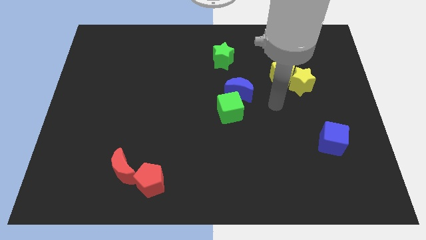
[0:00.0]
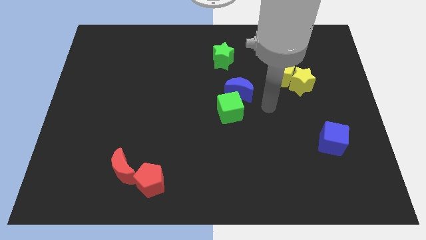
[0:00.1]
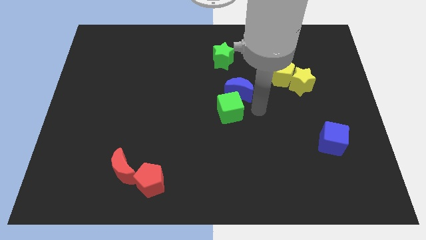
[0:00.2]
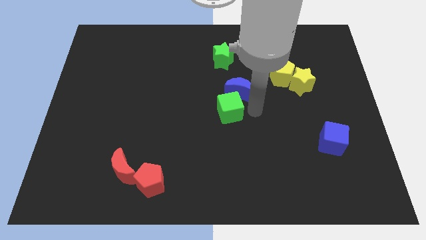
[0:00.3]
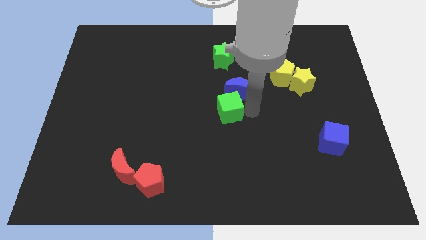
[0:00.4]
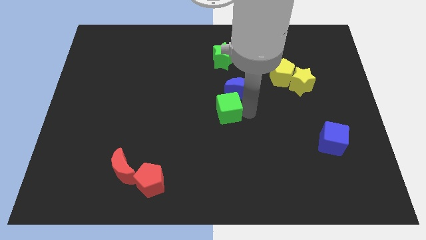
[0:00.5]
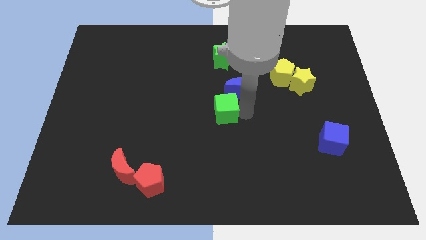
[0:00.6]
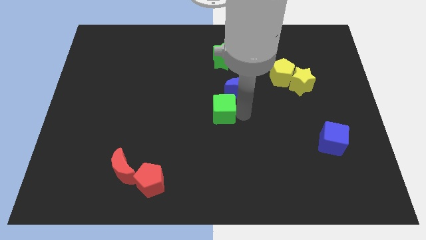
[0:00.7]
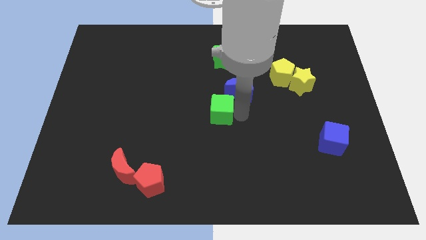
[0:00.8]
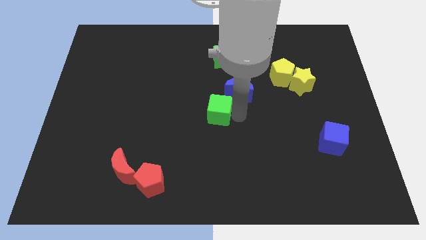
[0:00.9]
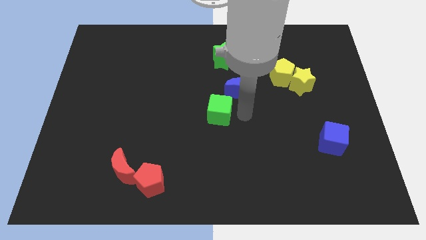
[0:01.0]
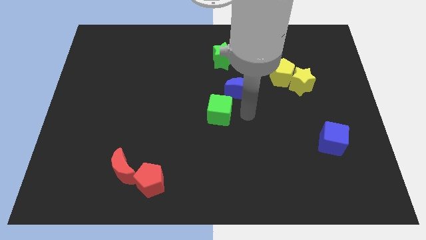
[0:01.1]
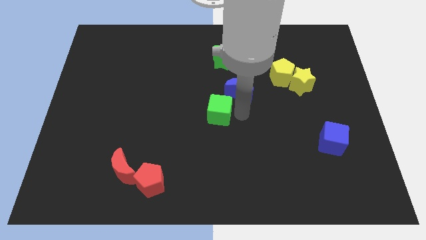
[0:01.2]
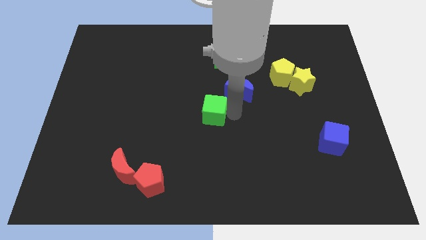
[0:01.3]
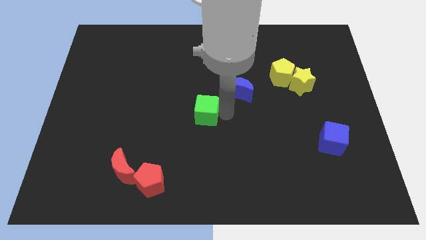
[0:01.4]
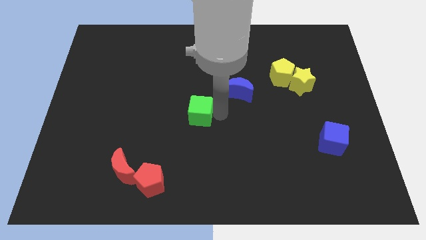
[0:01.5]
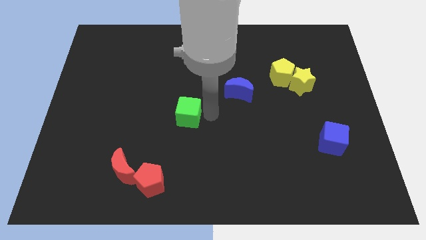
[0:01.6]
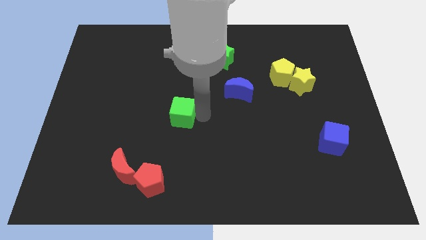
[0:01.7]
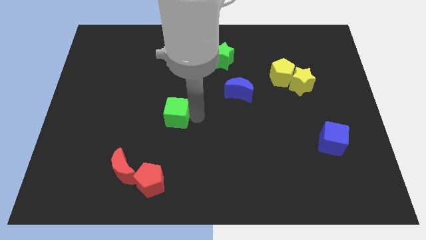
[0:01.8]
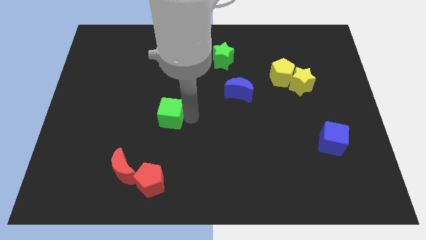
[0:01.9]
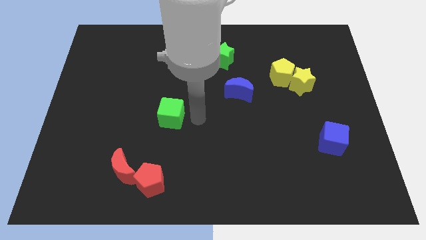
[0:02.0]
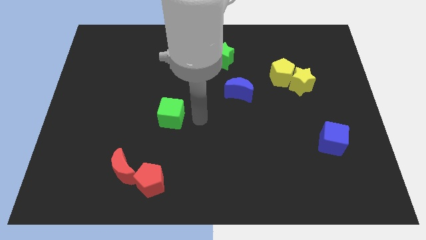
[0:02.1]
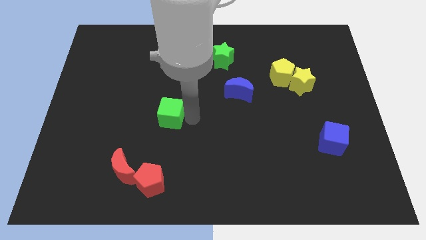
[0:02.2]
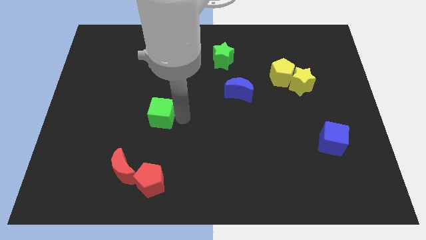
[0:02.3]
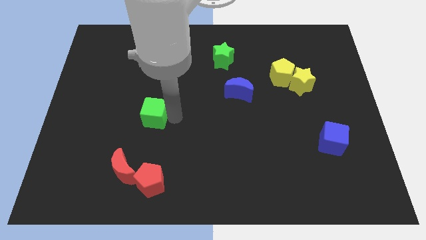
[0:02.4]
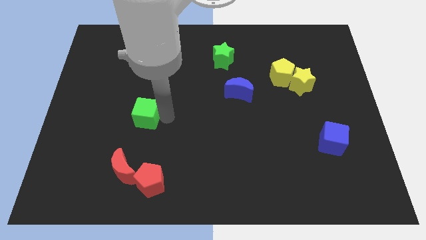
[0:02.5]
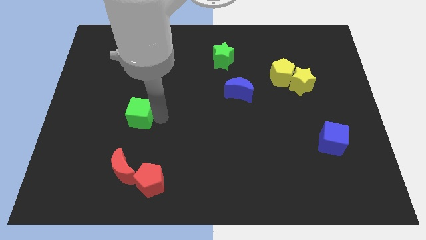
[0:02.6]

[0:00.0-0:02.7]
move the green cube left

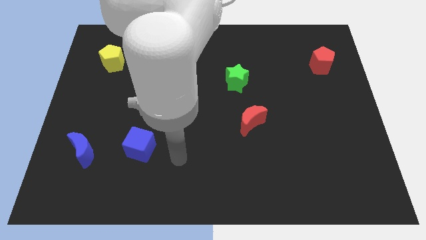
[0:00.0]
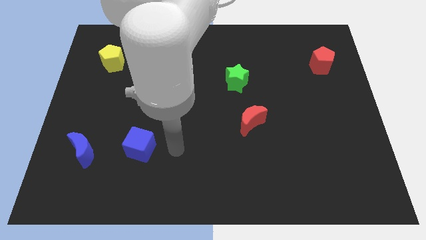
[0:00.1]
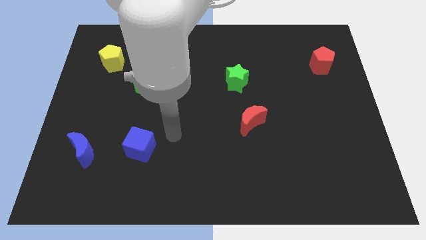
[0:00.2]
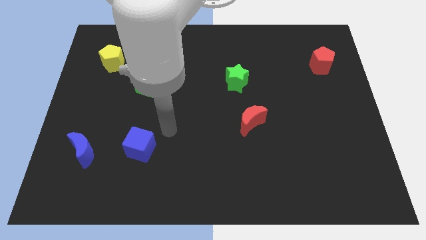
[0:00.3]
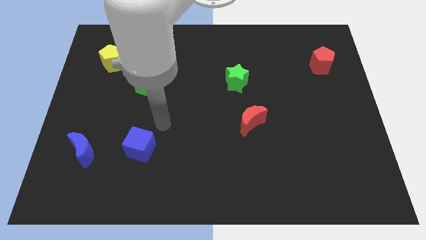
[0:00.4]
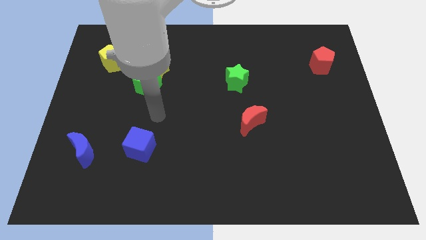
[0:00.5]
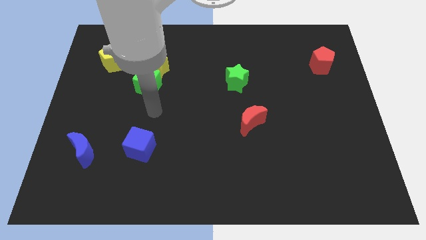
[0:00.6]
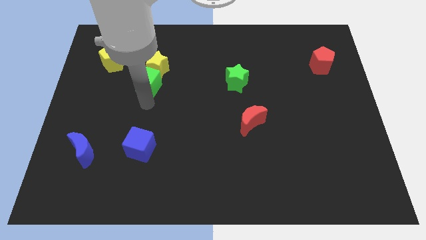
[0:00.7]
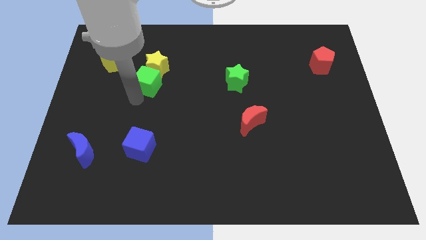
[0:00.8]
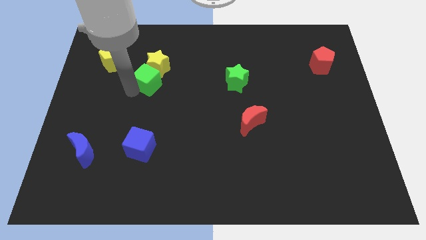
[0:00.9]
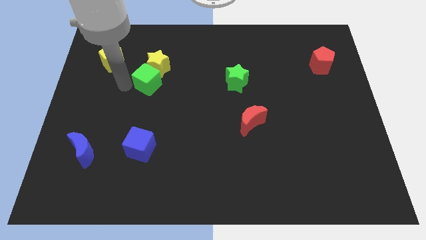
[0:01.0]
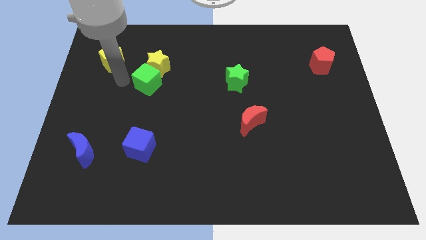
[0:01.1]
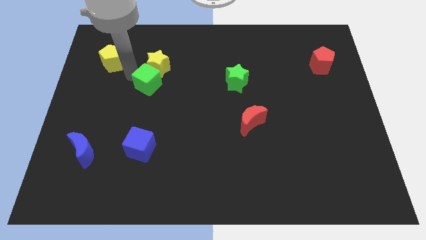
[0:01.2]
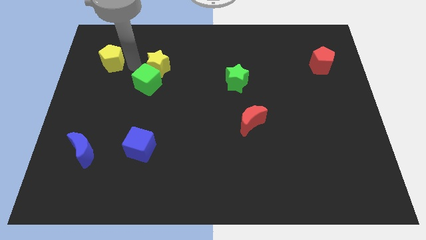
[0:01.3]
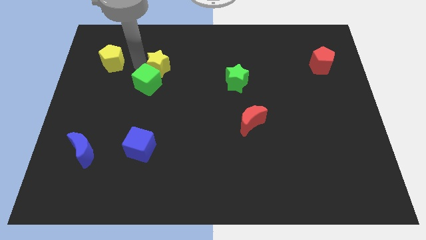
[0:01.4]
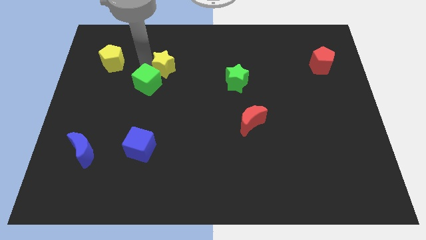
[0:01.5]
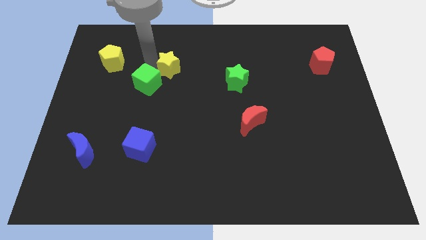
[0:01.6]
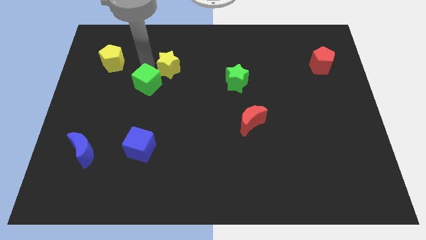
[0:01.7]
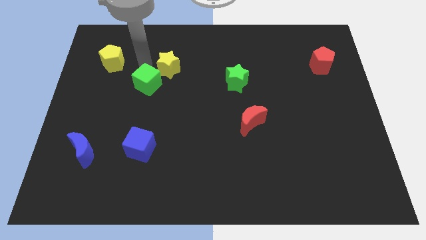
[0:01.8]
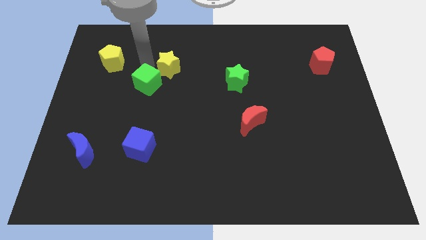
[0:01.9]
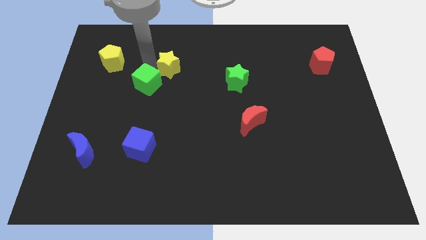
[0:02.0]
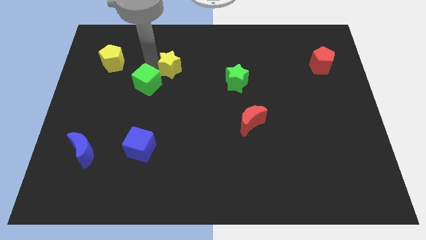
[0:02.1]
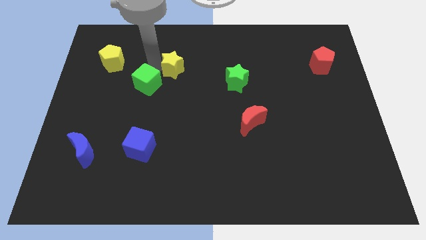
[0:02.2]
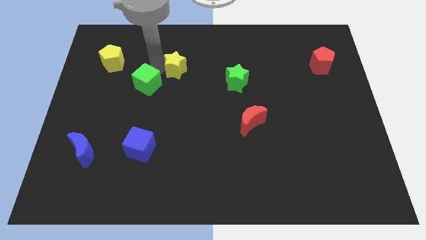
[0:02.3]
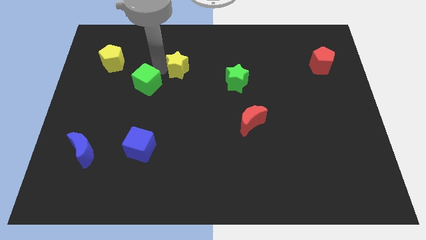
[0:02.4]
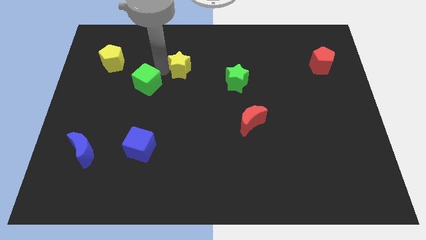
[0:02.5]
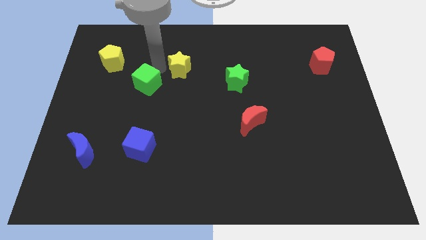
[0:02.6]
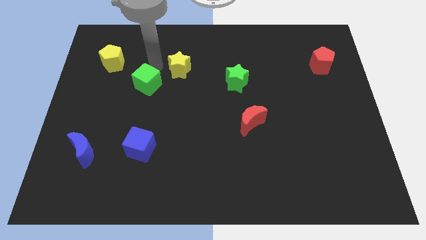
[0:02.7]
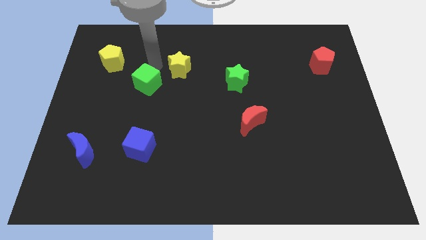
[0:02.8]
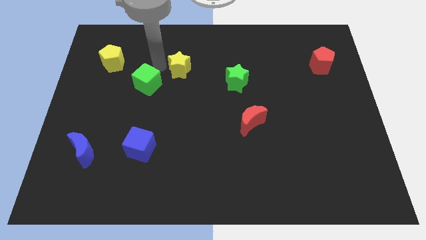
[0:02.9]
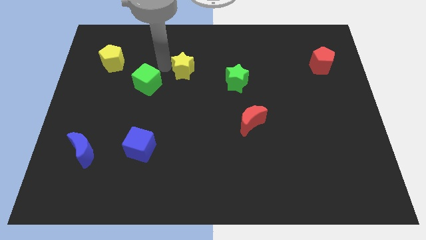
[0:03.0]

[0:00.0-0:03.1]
slide the yellow star a little to the right

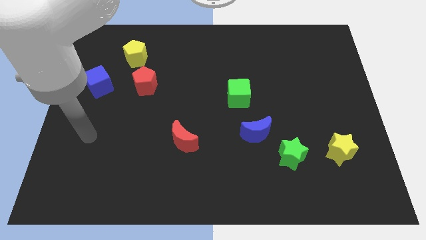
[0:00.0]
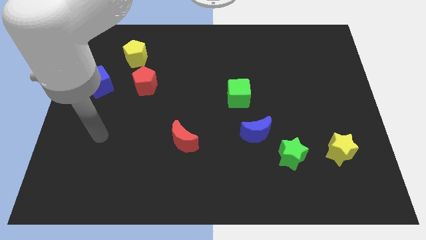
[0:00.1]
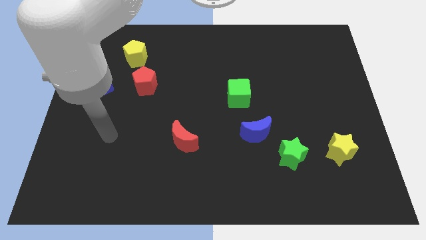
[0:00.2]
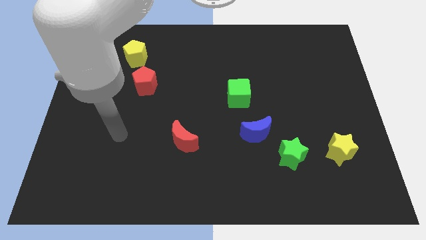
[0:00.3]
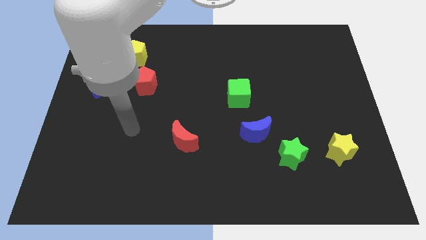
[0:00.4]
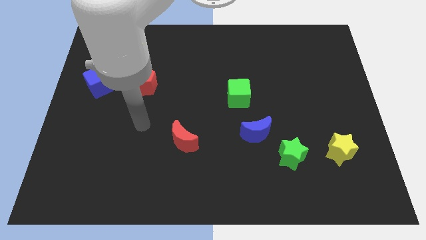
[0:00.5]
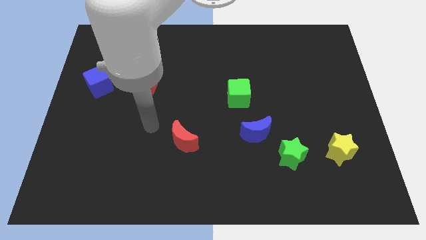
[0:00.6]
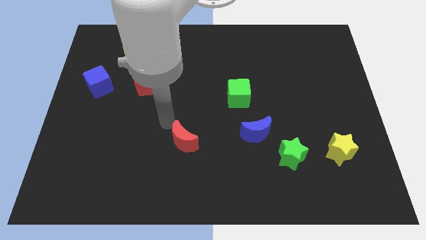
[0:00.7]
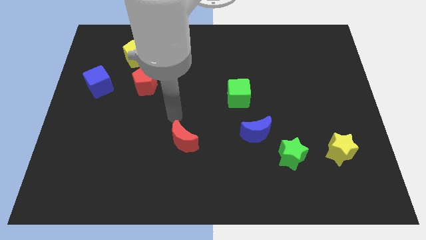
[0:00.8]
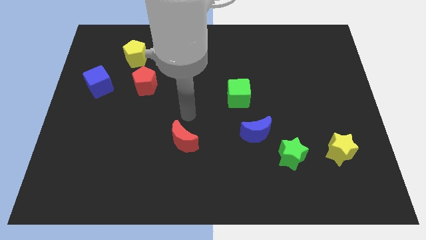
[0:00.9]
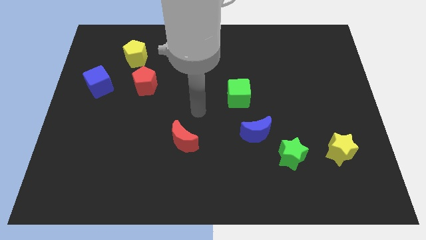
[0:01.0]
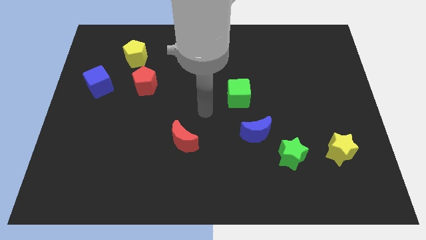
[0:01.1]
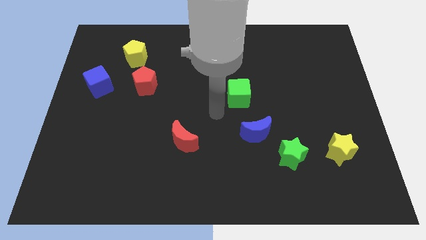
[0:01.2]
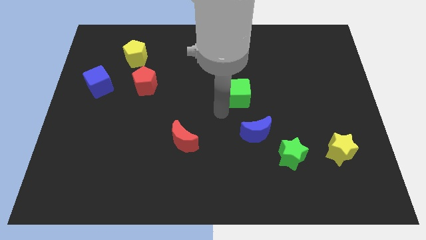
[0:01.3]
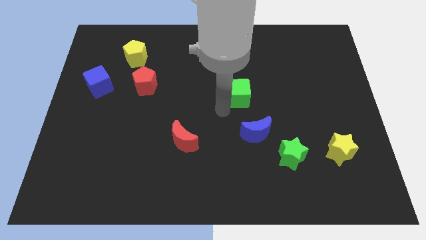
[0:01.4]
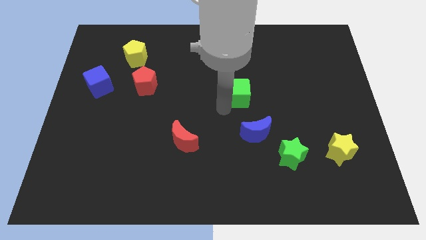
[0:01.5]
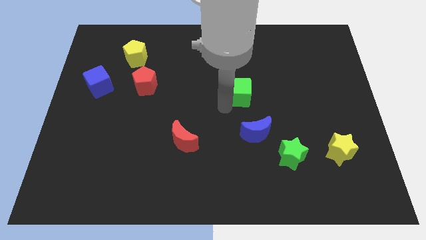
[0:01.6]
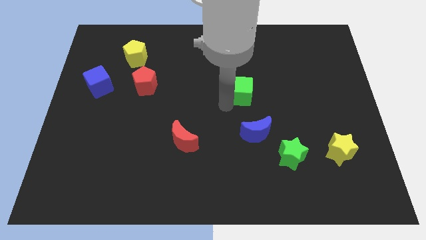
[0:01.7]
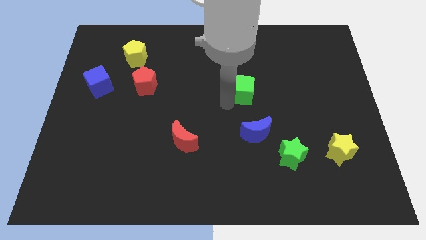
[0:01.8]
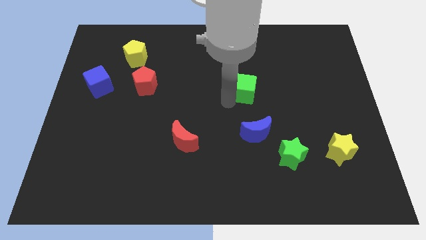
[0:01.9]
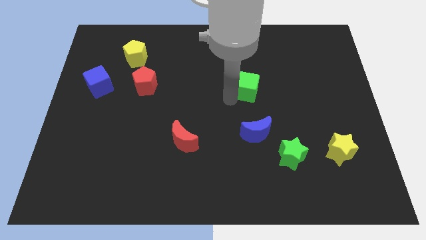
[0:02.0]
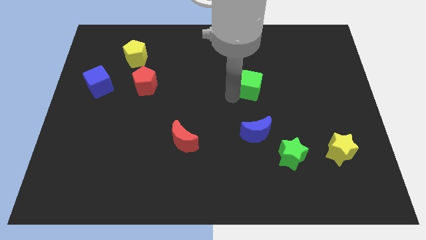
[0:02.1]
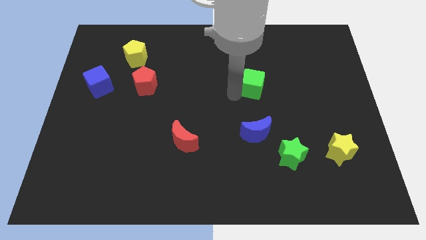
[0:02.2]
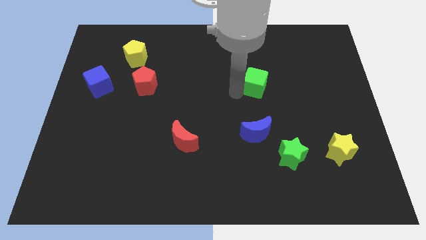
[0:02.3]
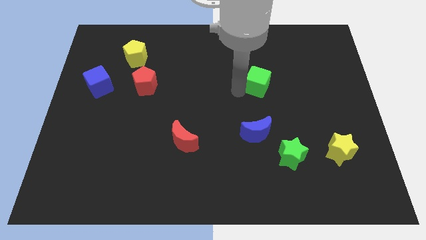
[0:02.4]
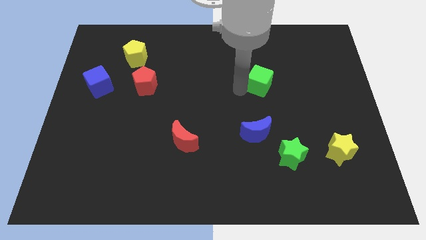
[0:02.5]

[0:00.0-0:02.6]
slightly move the green cube diagonally up and right
